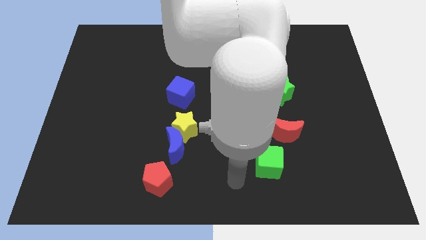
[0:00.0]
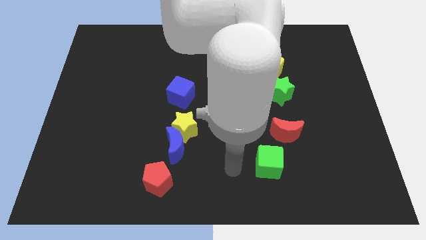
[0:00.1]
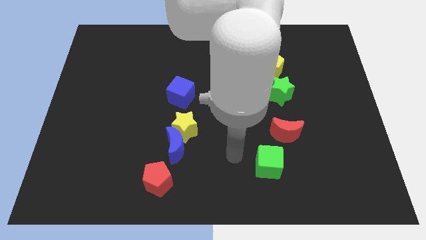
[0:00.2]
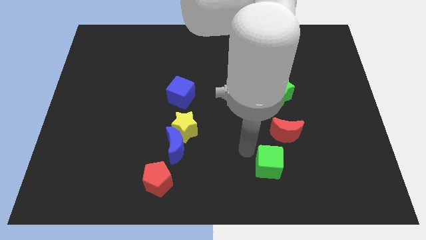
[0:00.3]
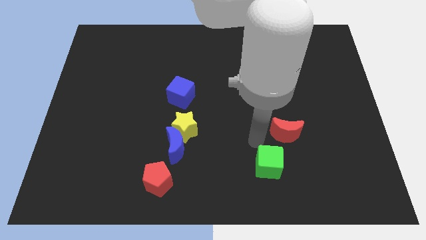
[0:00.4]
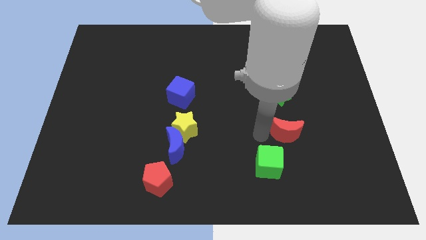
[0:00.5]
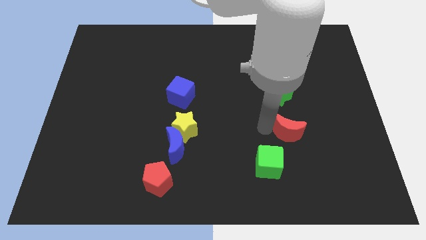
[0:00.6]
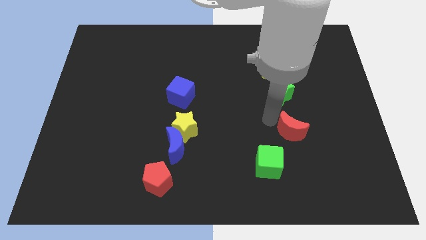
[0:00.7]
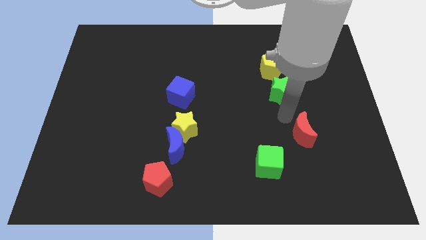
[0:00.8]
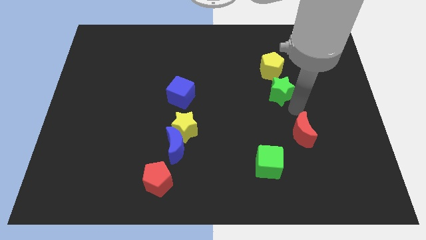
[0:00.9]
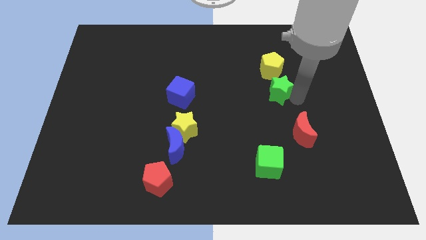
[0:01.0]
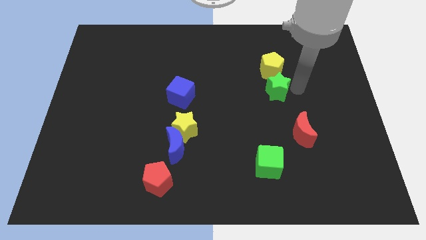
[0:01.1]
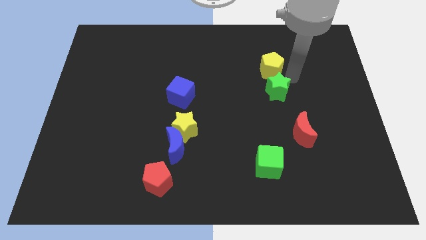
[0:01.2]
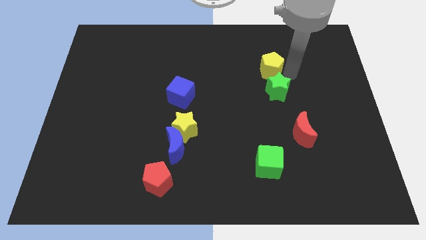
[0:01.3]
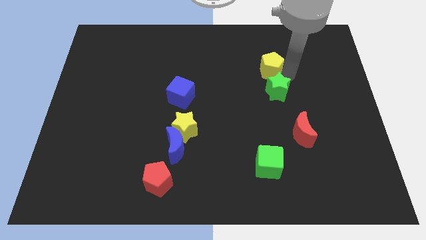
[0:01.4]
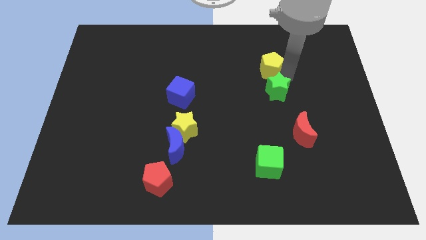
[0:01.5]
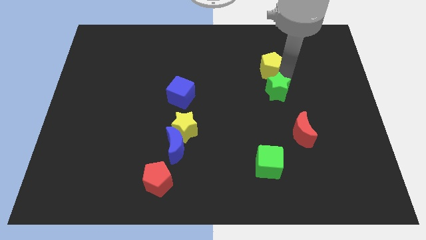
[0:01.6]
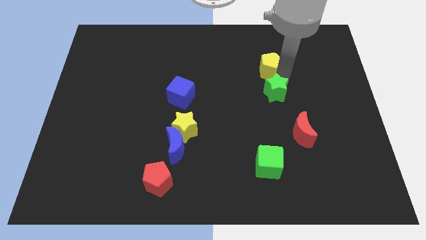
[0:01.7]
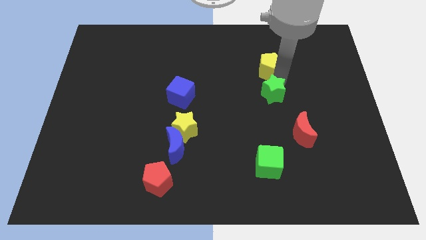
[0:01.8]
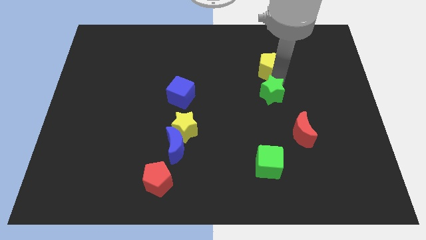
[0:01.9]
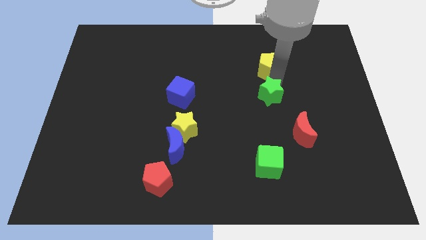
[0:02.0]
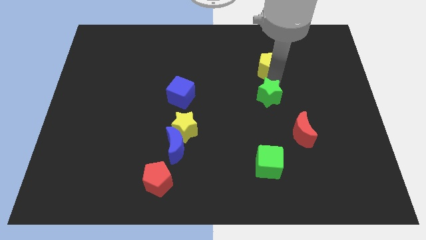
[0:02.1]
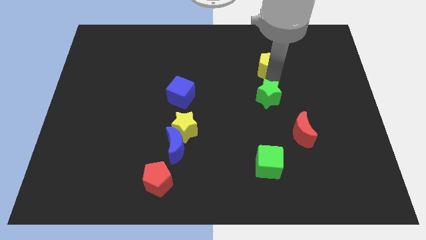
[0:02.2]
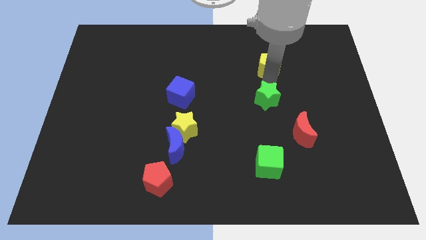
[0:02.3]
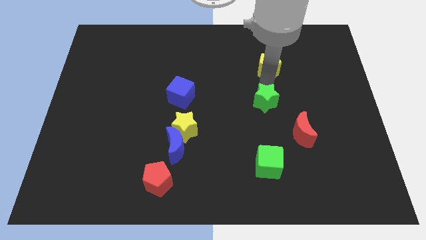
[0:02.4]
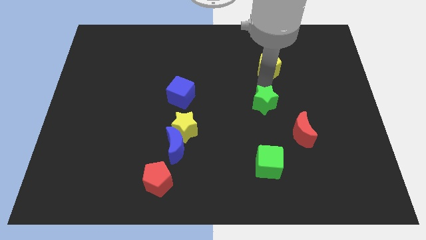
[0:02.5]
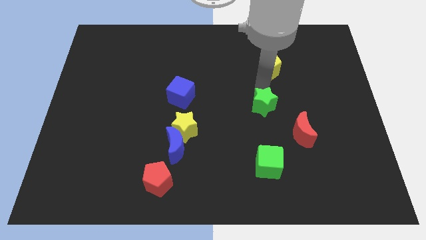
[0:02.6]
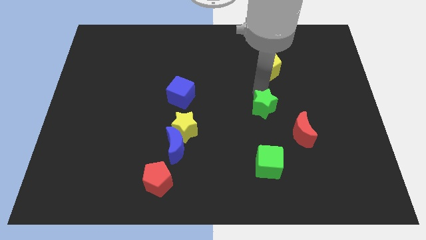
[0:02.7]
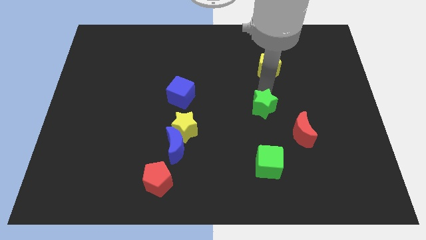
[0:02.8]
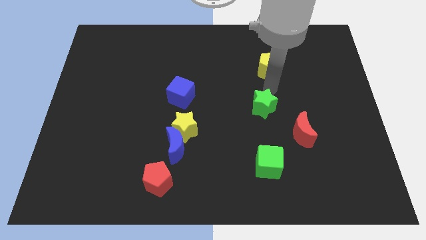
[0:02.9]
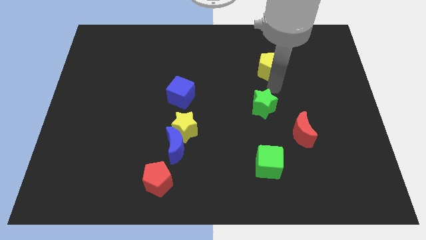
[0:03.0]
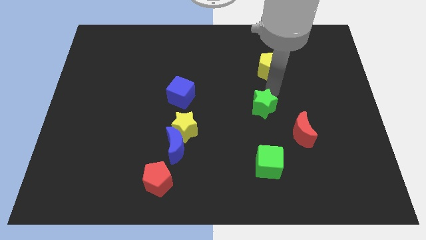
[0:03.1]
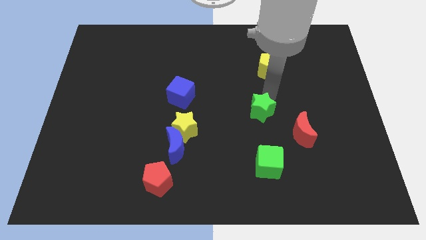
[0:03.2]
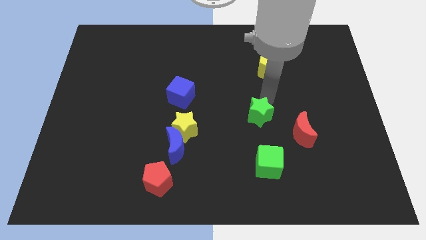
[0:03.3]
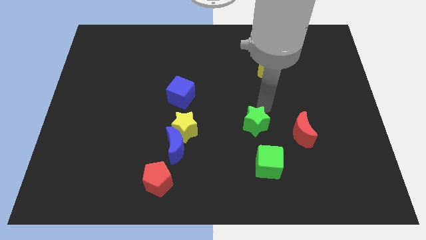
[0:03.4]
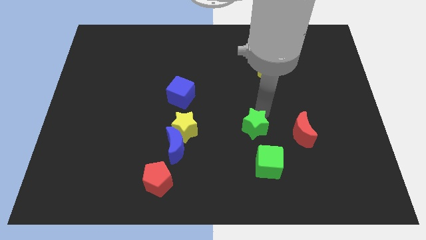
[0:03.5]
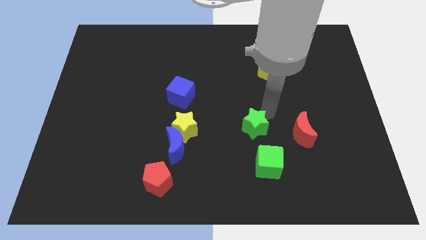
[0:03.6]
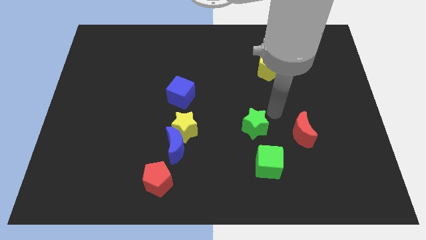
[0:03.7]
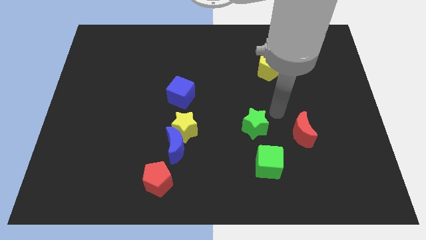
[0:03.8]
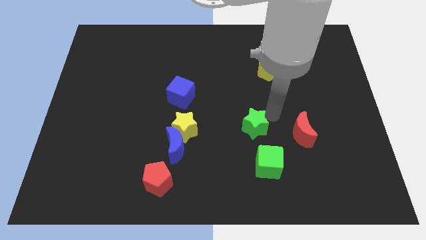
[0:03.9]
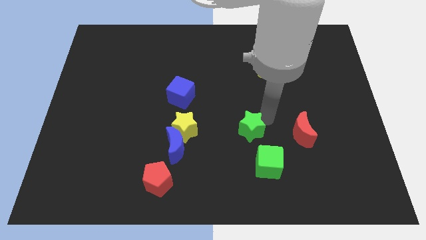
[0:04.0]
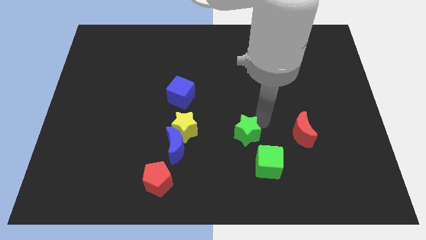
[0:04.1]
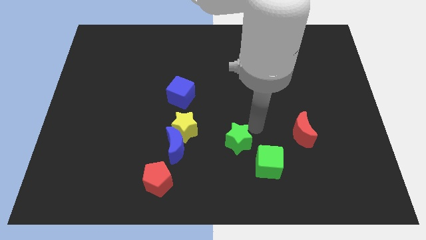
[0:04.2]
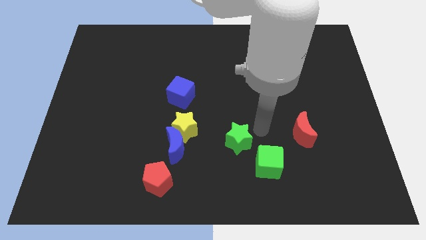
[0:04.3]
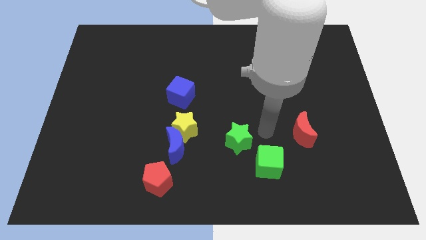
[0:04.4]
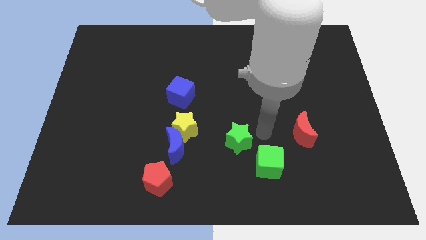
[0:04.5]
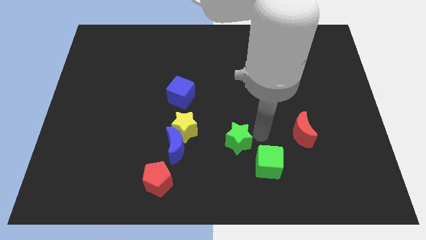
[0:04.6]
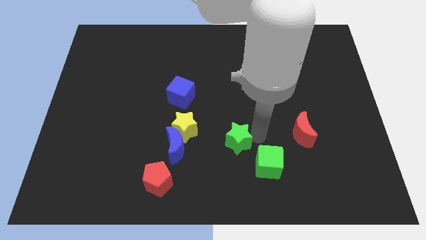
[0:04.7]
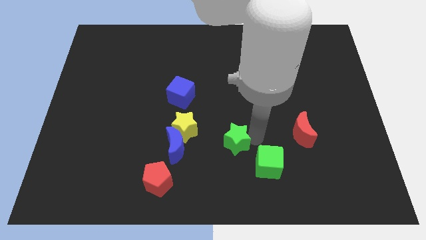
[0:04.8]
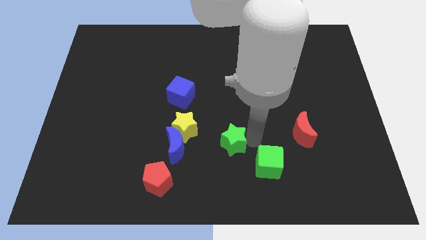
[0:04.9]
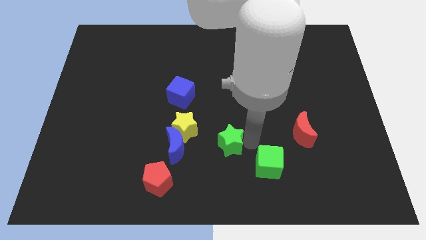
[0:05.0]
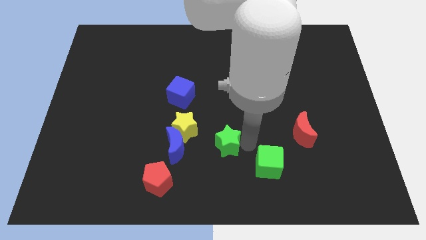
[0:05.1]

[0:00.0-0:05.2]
move the green star diagonally down and to the right of the yellow star

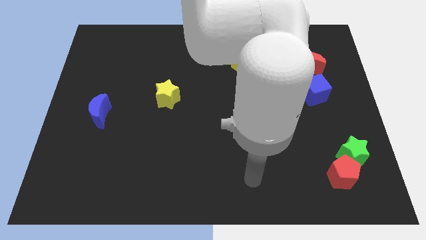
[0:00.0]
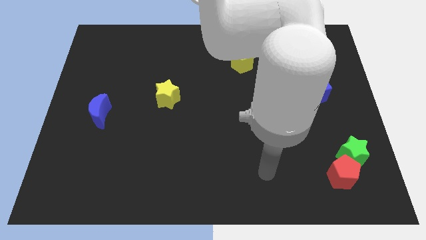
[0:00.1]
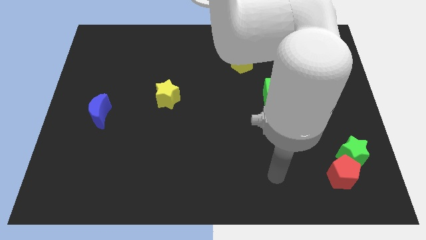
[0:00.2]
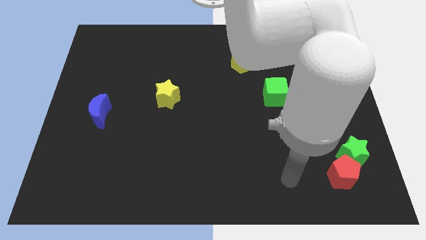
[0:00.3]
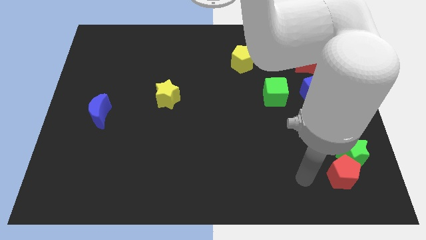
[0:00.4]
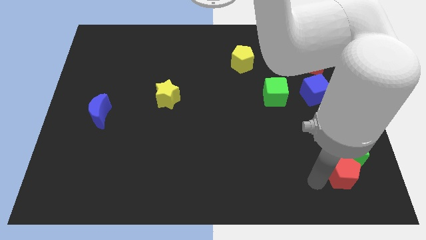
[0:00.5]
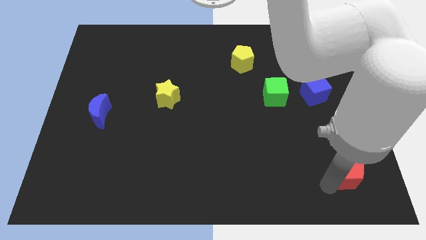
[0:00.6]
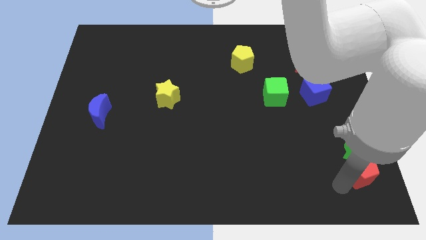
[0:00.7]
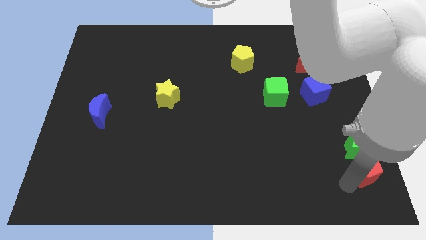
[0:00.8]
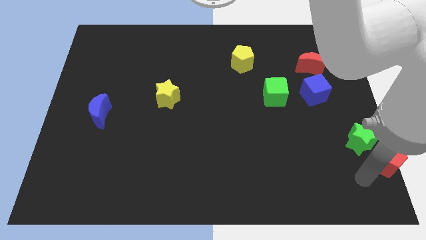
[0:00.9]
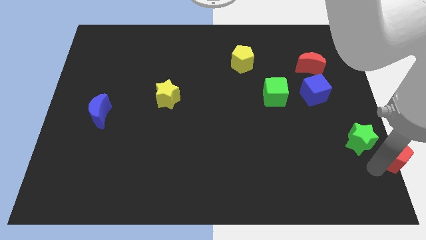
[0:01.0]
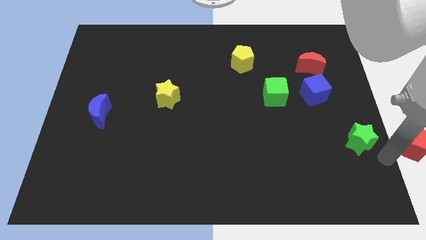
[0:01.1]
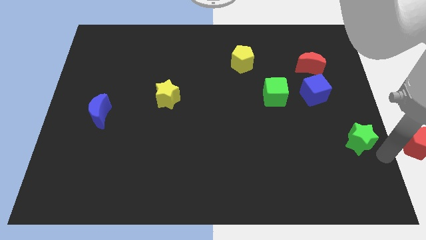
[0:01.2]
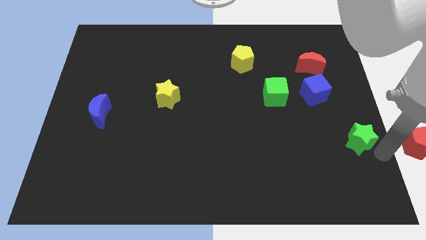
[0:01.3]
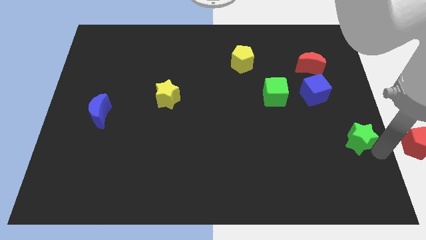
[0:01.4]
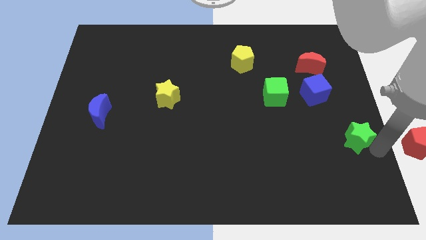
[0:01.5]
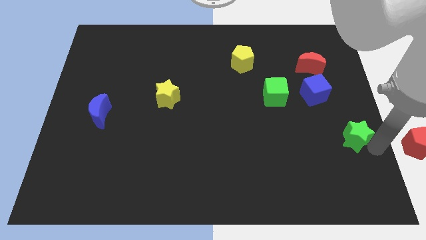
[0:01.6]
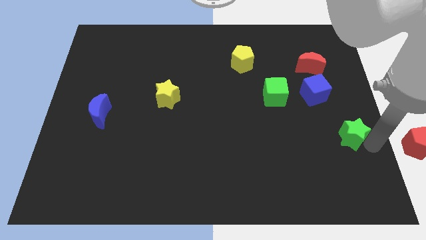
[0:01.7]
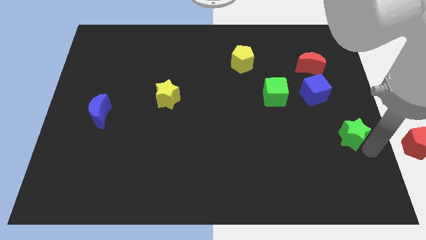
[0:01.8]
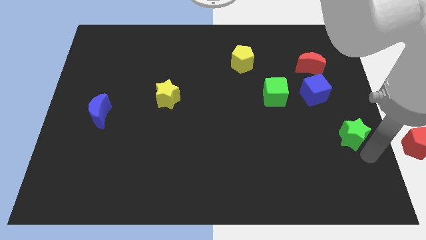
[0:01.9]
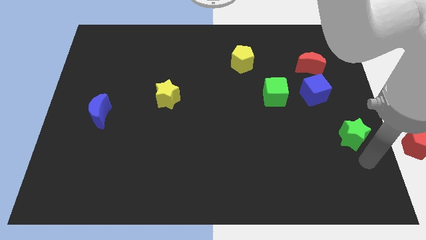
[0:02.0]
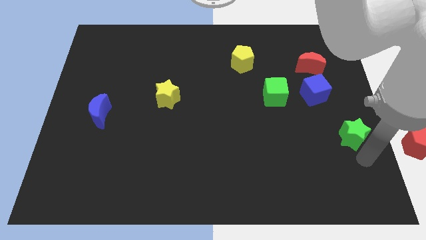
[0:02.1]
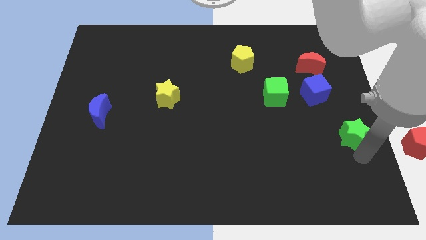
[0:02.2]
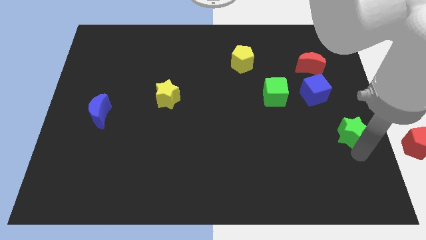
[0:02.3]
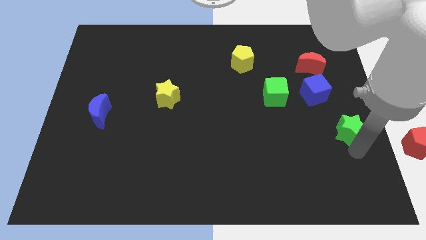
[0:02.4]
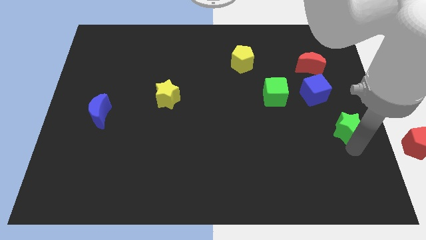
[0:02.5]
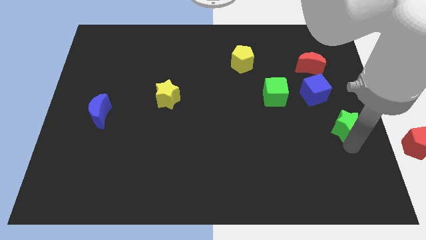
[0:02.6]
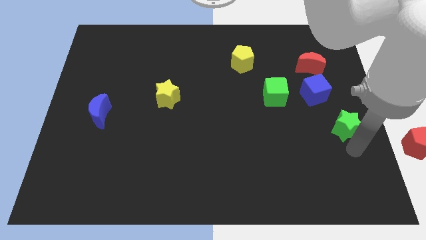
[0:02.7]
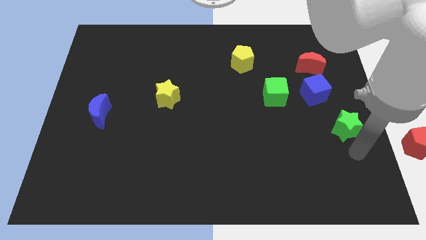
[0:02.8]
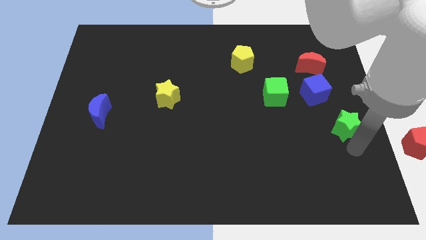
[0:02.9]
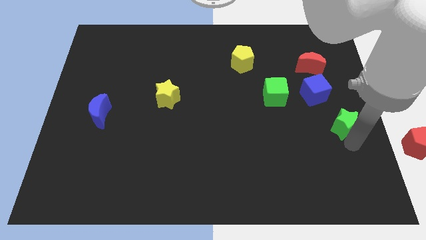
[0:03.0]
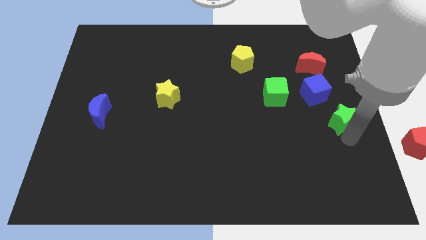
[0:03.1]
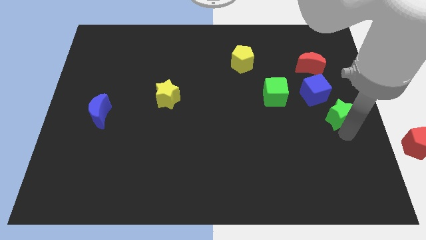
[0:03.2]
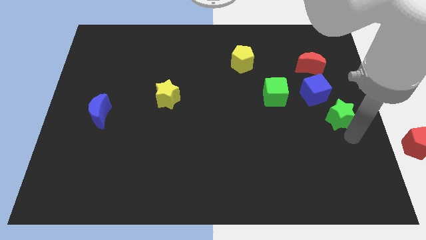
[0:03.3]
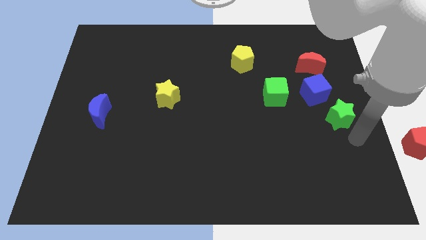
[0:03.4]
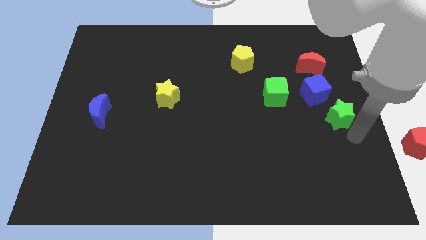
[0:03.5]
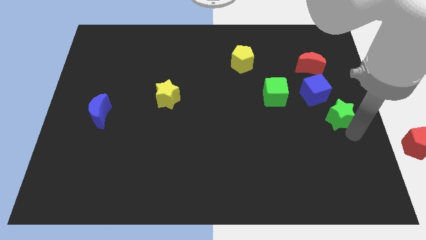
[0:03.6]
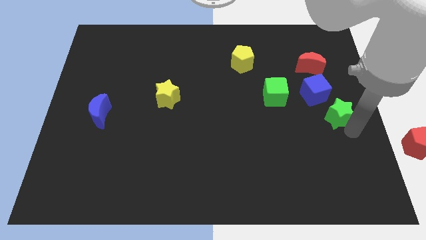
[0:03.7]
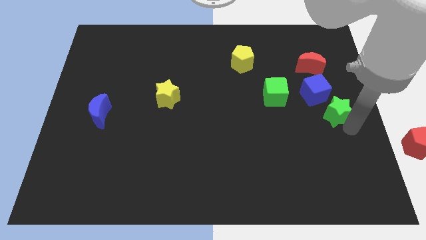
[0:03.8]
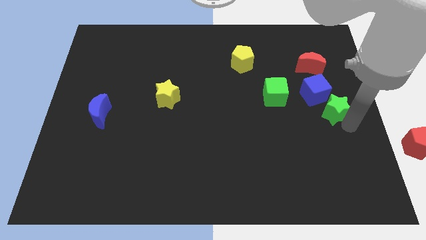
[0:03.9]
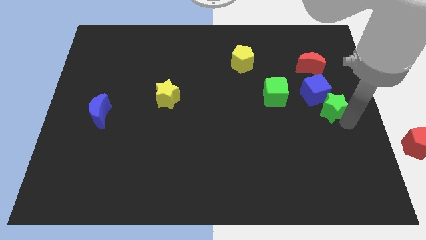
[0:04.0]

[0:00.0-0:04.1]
put the green star just right of the green cube
